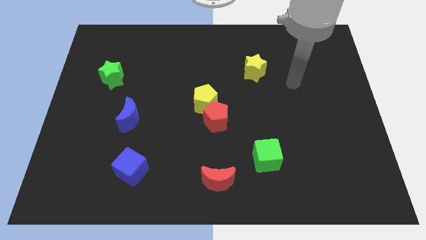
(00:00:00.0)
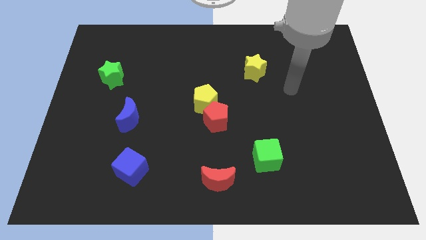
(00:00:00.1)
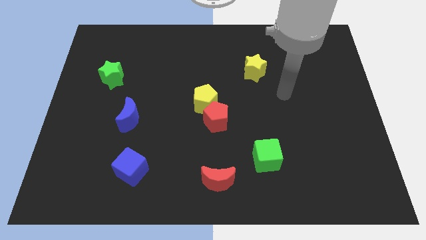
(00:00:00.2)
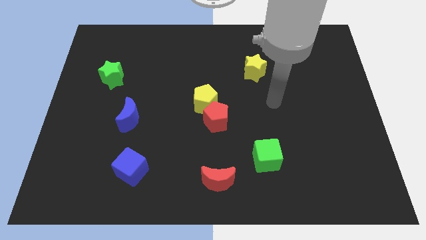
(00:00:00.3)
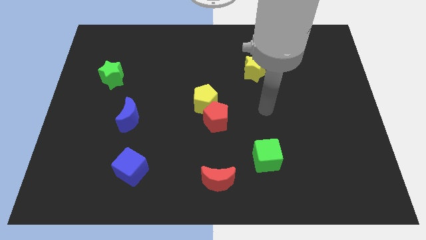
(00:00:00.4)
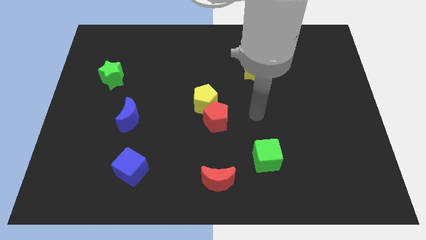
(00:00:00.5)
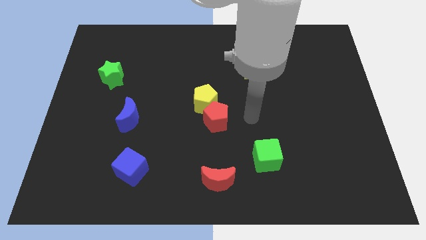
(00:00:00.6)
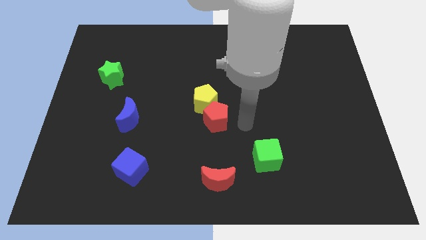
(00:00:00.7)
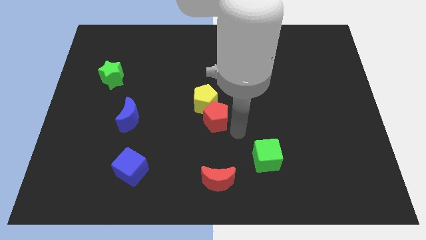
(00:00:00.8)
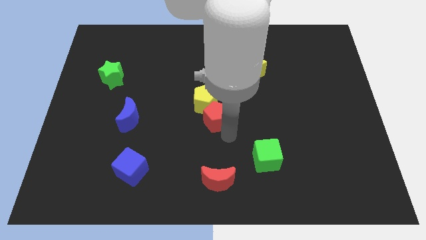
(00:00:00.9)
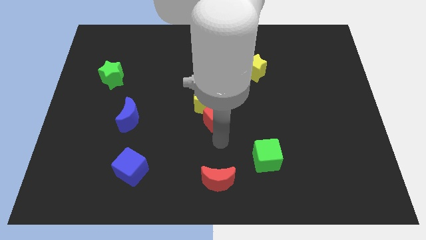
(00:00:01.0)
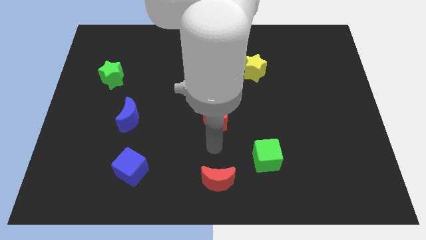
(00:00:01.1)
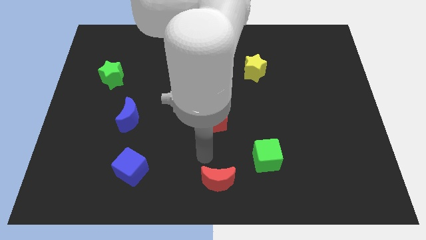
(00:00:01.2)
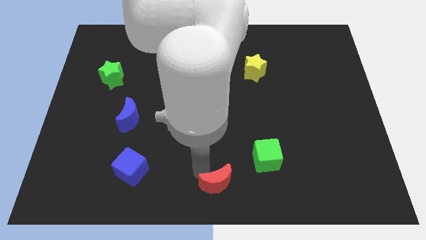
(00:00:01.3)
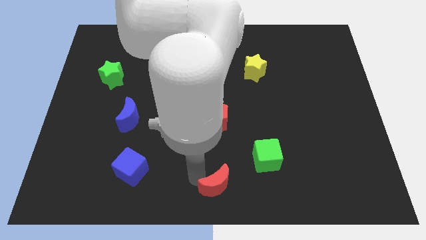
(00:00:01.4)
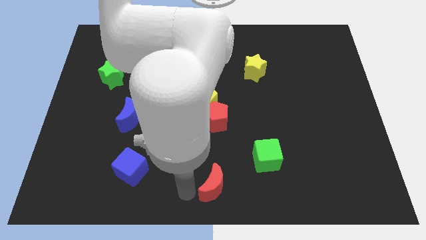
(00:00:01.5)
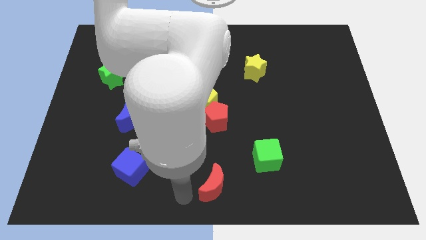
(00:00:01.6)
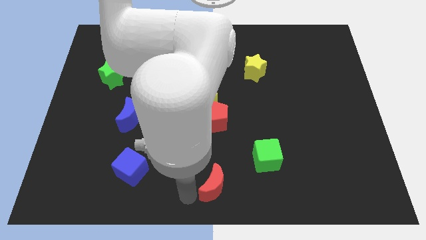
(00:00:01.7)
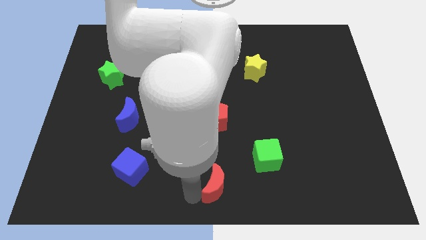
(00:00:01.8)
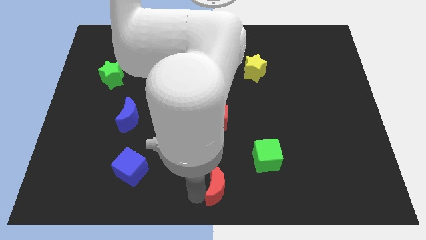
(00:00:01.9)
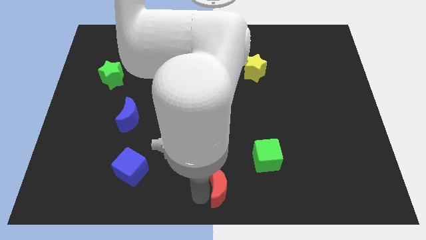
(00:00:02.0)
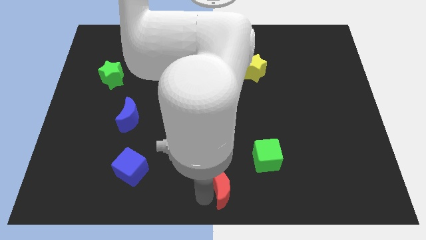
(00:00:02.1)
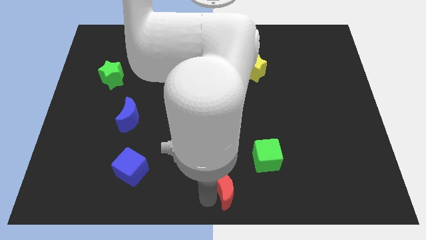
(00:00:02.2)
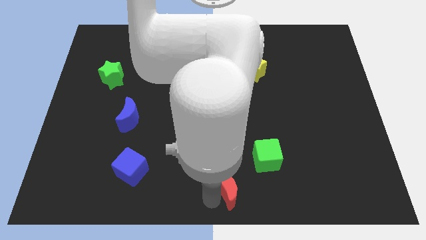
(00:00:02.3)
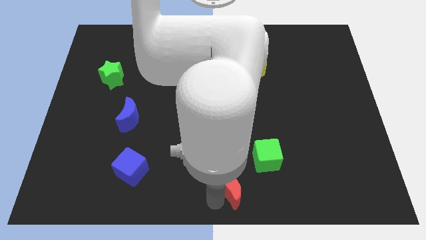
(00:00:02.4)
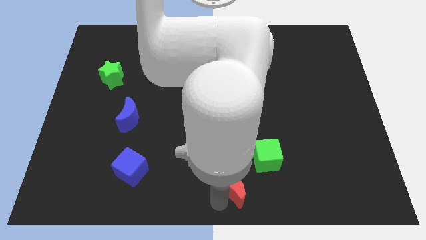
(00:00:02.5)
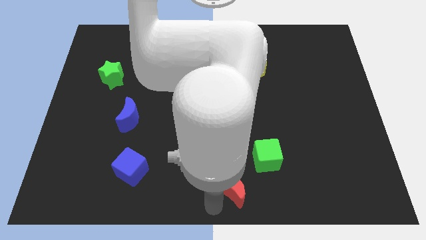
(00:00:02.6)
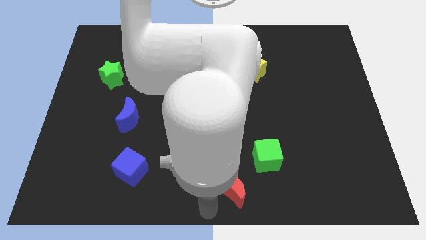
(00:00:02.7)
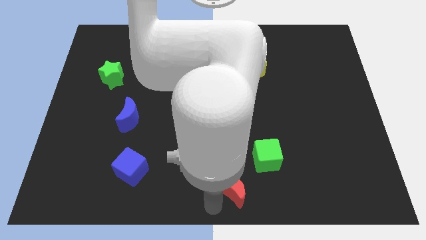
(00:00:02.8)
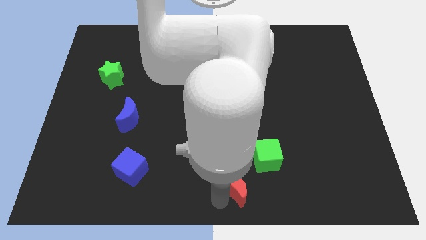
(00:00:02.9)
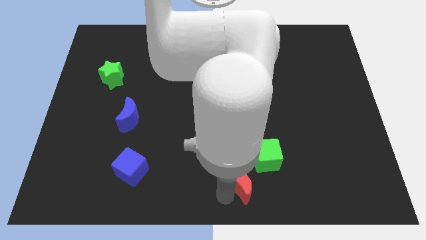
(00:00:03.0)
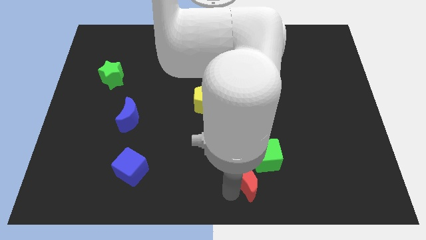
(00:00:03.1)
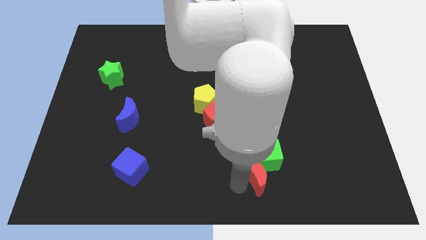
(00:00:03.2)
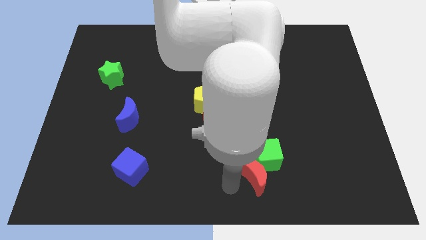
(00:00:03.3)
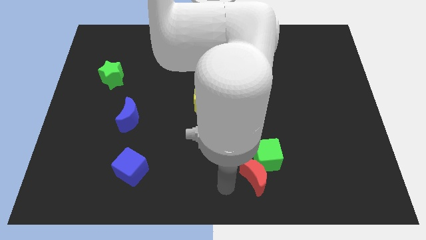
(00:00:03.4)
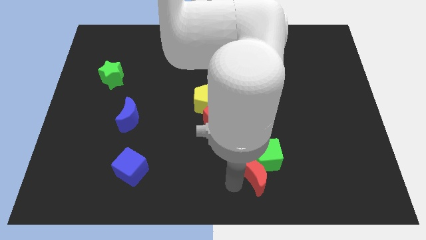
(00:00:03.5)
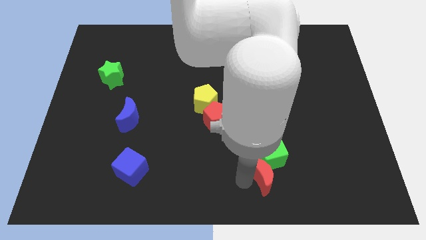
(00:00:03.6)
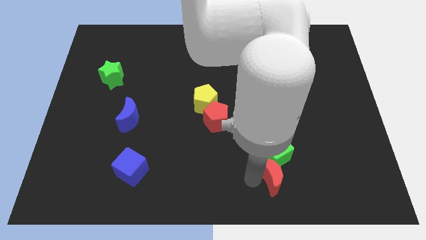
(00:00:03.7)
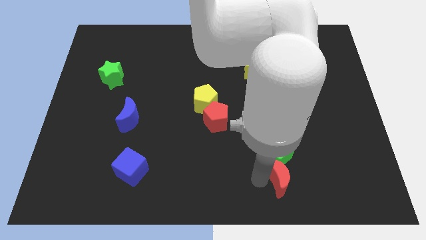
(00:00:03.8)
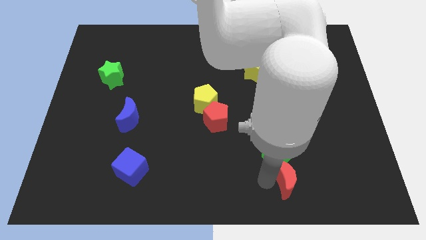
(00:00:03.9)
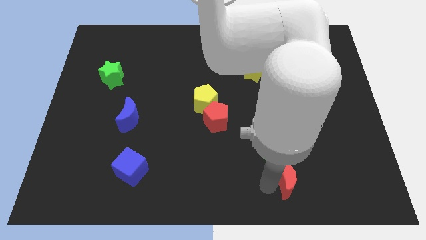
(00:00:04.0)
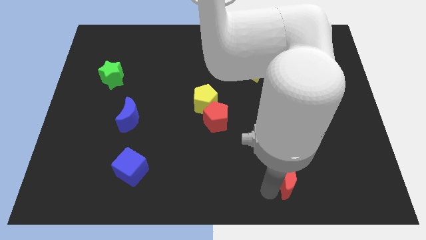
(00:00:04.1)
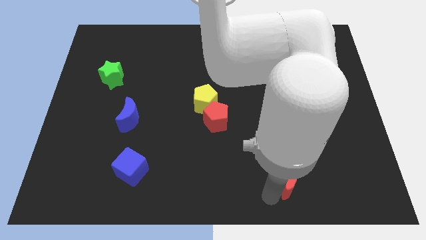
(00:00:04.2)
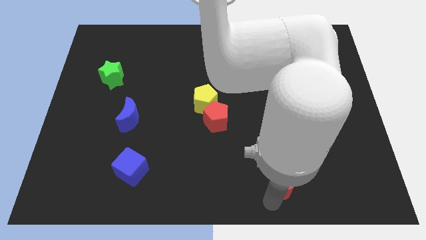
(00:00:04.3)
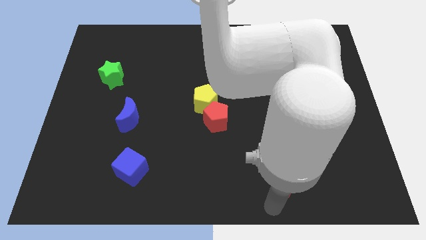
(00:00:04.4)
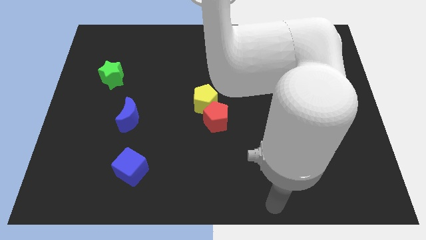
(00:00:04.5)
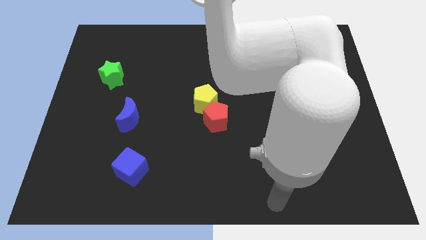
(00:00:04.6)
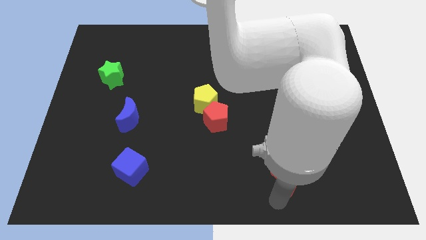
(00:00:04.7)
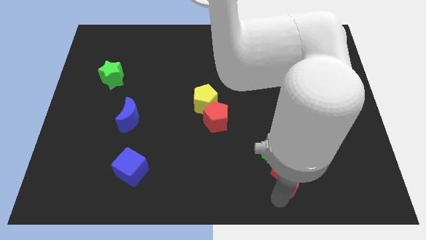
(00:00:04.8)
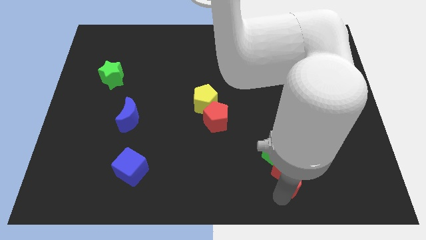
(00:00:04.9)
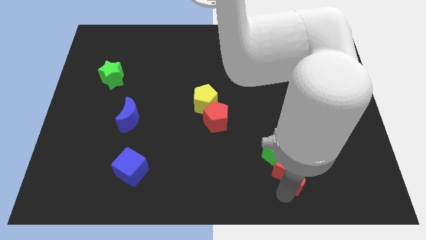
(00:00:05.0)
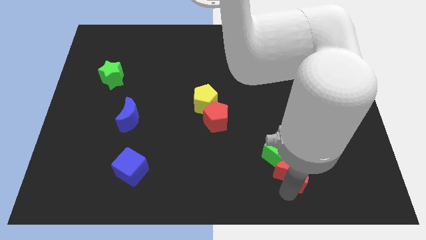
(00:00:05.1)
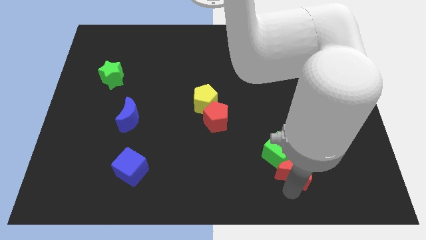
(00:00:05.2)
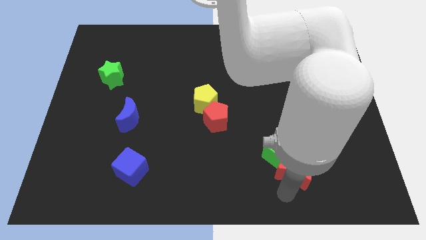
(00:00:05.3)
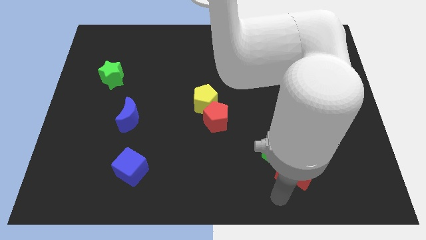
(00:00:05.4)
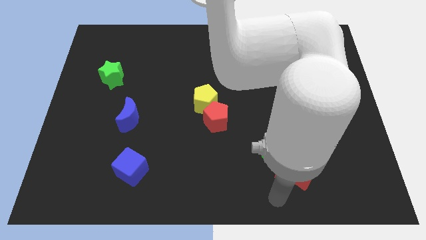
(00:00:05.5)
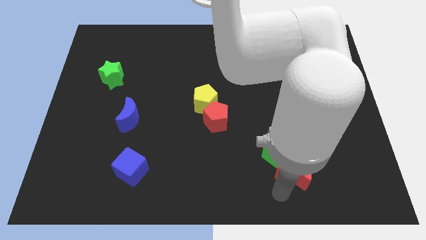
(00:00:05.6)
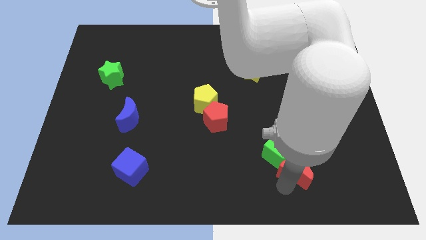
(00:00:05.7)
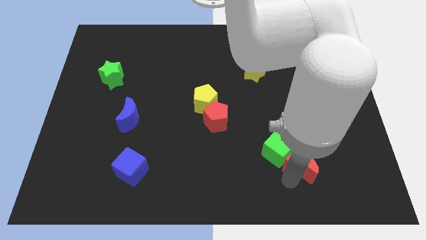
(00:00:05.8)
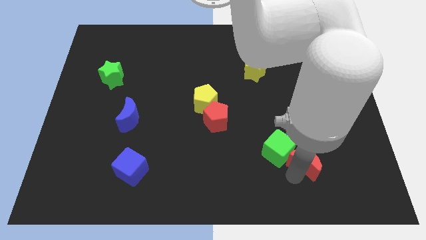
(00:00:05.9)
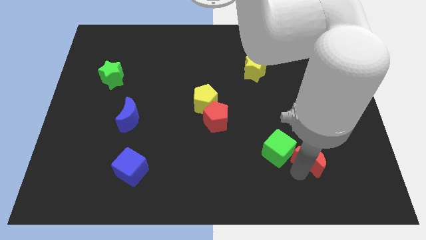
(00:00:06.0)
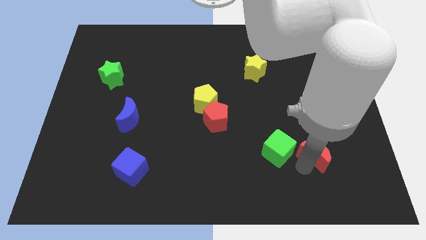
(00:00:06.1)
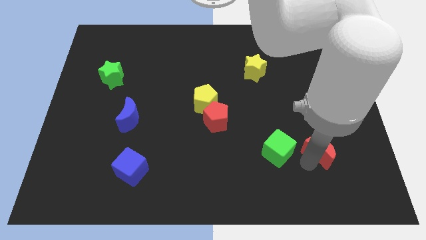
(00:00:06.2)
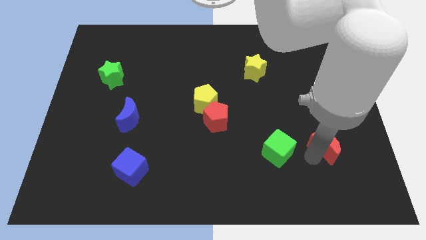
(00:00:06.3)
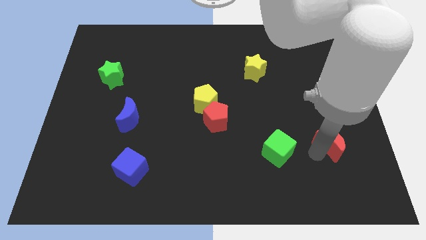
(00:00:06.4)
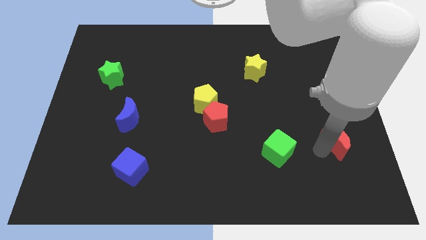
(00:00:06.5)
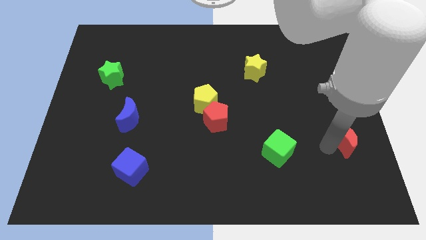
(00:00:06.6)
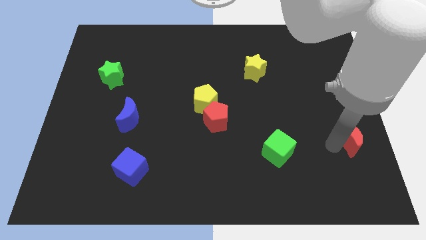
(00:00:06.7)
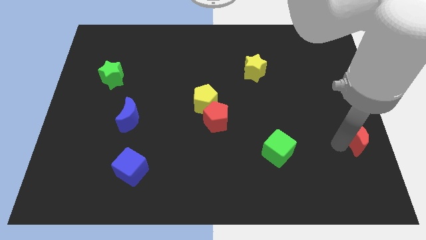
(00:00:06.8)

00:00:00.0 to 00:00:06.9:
slide the red moon to the right side of the board

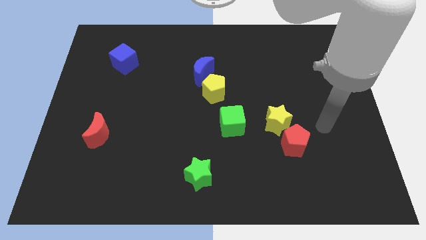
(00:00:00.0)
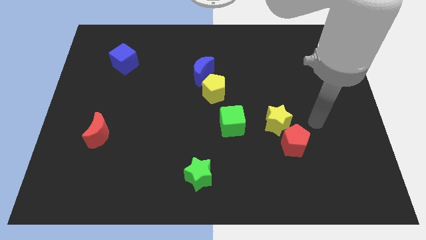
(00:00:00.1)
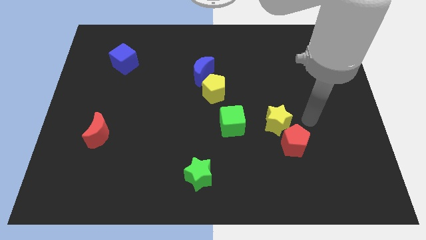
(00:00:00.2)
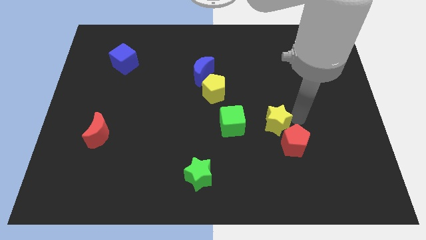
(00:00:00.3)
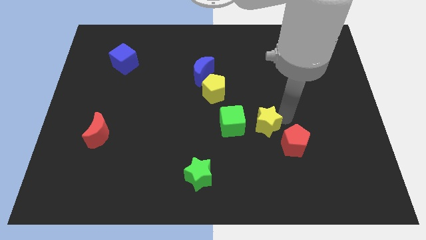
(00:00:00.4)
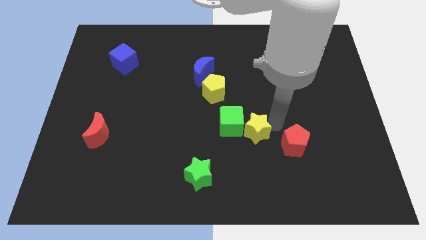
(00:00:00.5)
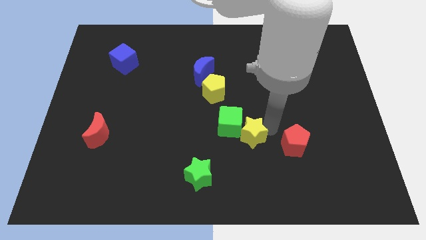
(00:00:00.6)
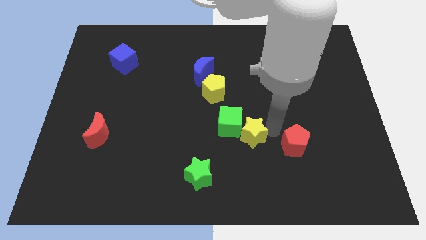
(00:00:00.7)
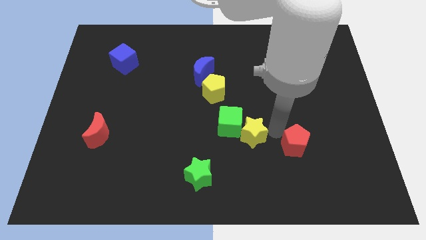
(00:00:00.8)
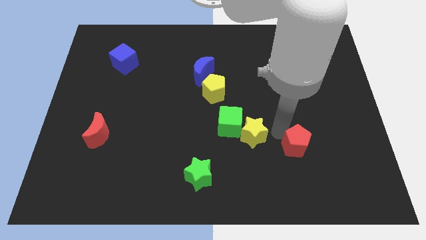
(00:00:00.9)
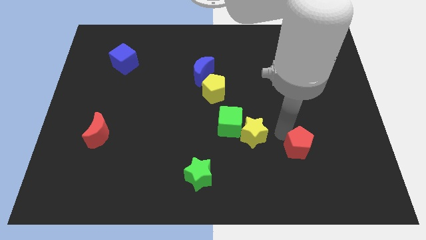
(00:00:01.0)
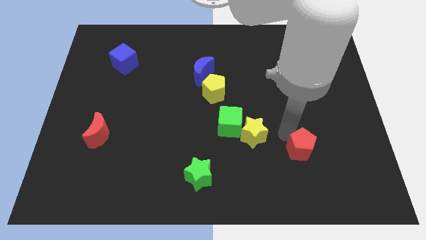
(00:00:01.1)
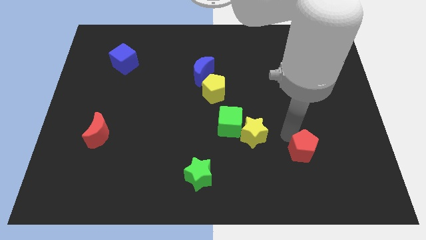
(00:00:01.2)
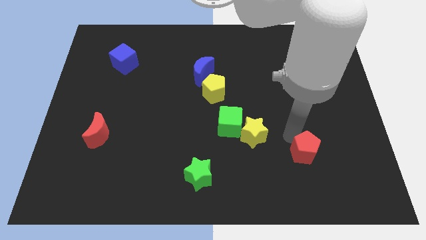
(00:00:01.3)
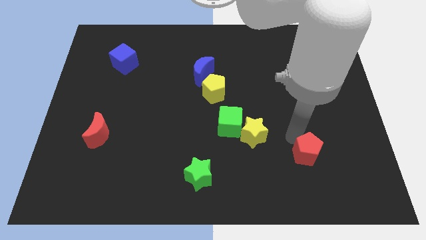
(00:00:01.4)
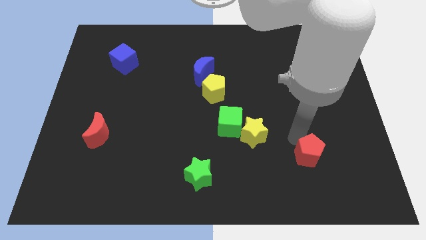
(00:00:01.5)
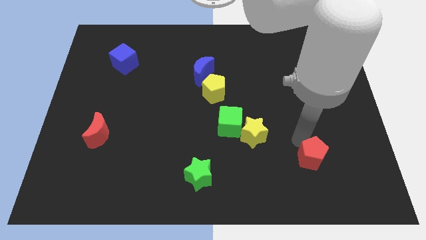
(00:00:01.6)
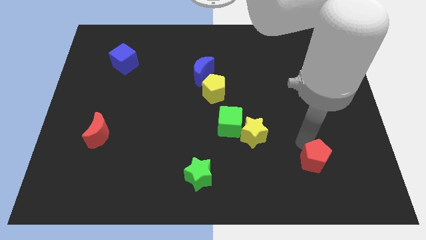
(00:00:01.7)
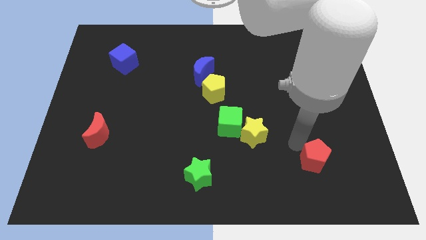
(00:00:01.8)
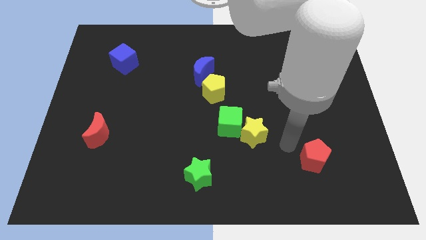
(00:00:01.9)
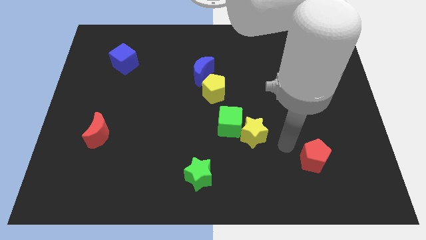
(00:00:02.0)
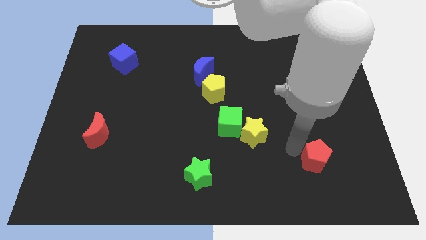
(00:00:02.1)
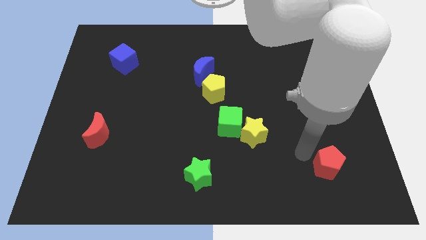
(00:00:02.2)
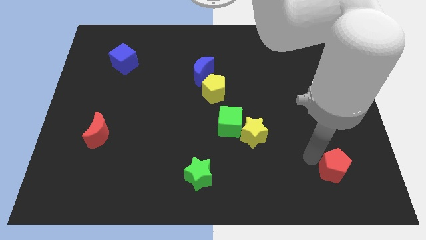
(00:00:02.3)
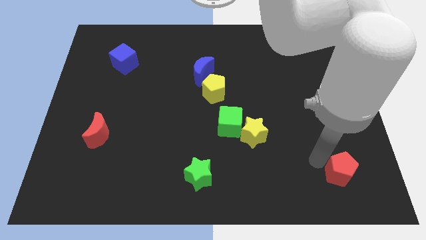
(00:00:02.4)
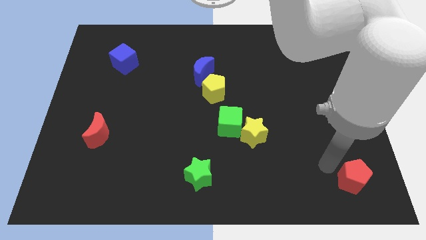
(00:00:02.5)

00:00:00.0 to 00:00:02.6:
move the red pentagon to the bottom right of the board
